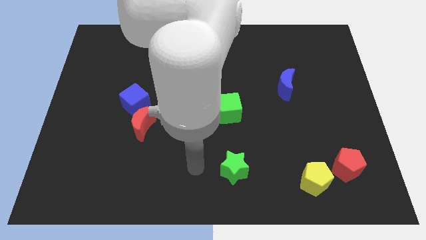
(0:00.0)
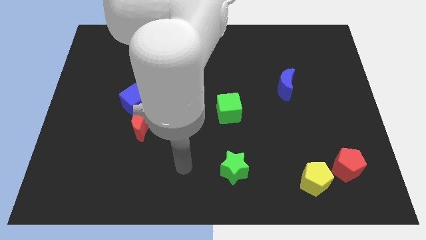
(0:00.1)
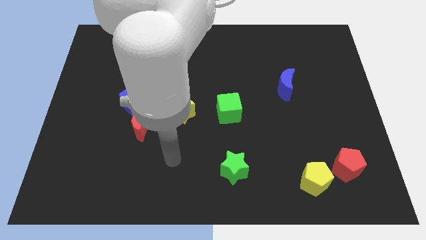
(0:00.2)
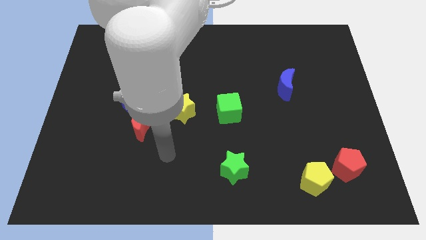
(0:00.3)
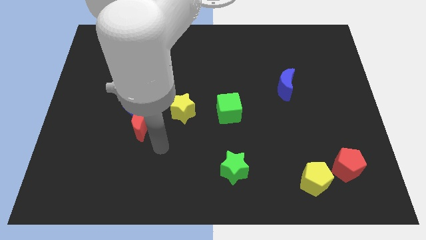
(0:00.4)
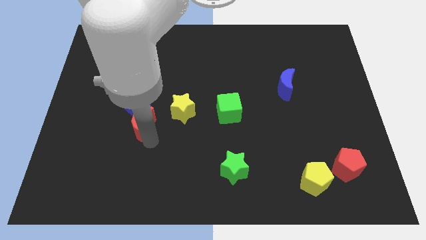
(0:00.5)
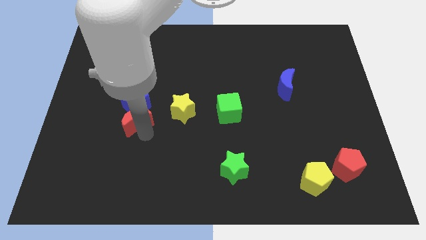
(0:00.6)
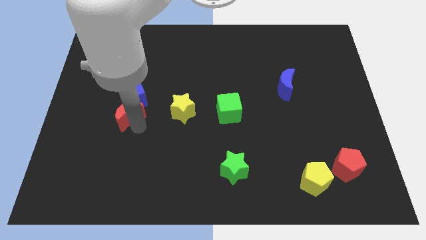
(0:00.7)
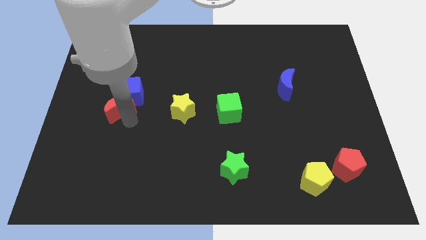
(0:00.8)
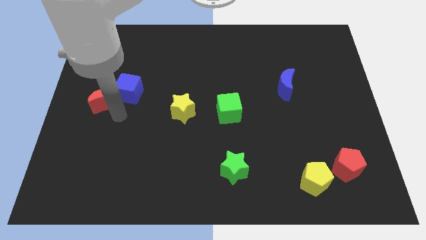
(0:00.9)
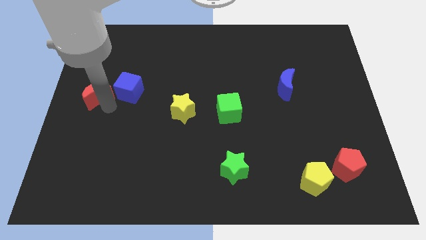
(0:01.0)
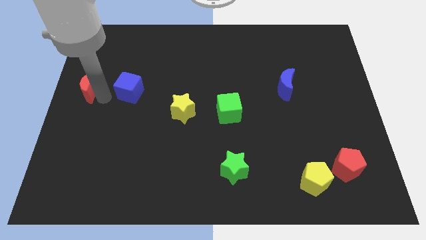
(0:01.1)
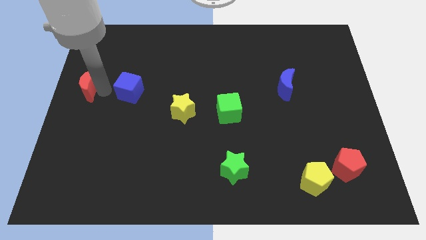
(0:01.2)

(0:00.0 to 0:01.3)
move the blue cube away from the red moon

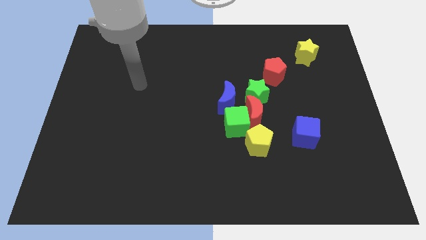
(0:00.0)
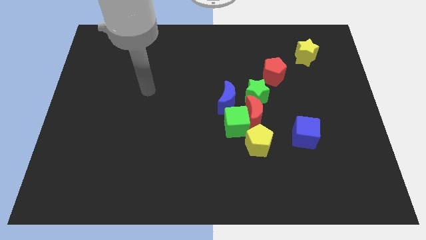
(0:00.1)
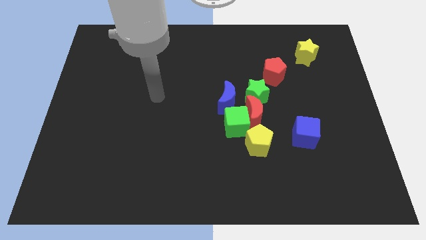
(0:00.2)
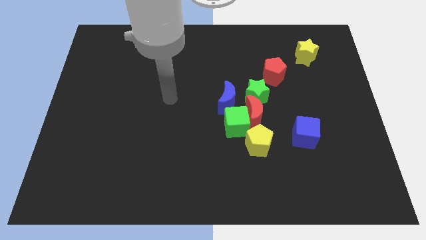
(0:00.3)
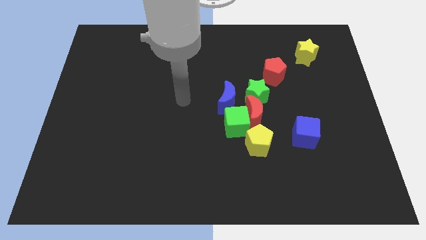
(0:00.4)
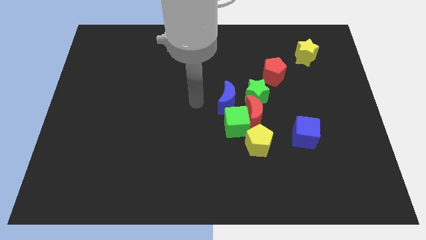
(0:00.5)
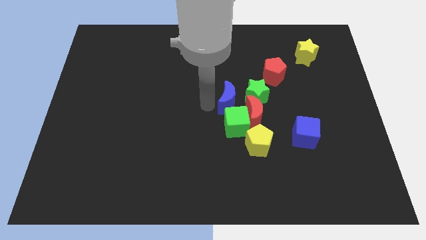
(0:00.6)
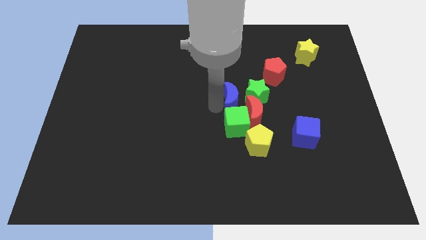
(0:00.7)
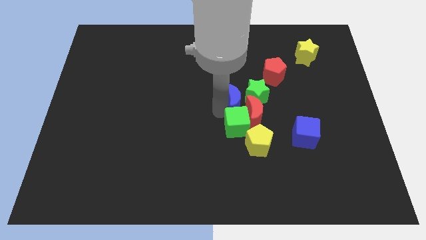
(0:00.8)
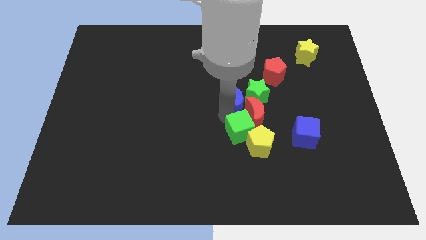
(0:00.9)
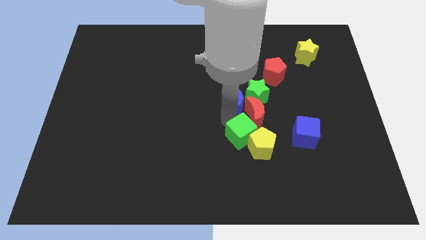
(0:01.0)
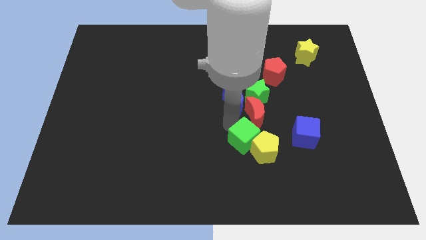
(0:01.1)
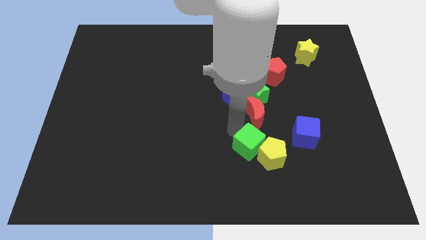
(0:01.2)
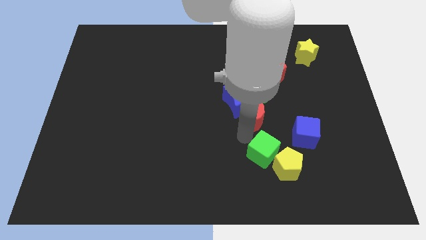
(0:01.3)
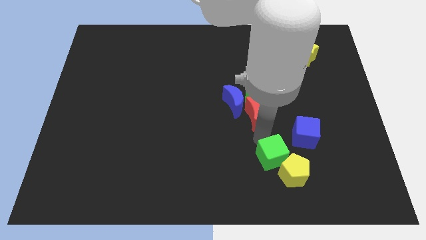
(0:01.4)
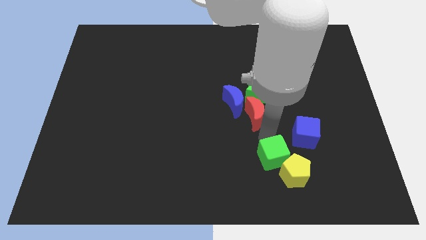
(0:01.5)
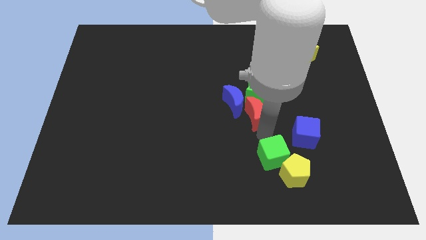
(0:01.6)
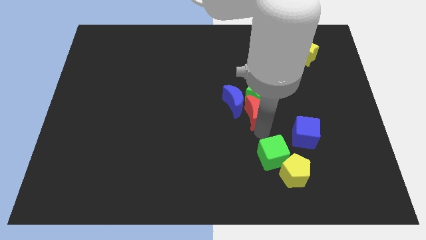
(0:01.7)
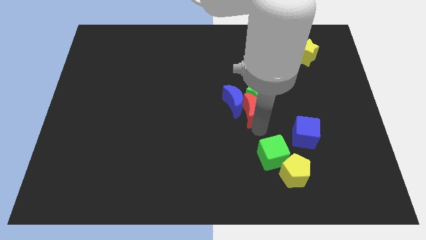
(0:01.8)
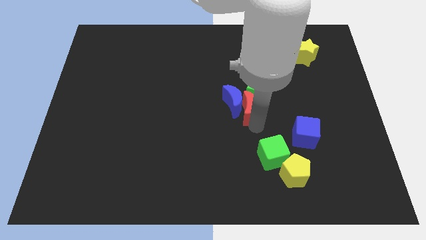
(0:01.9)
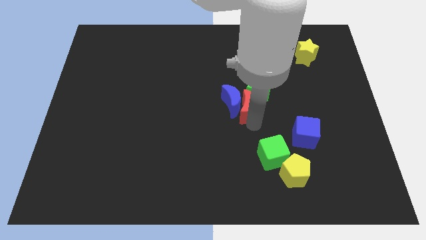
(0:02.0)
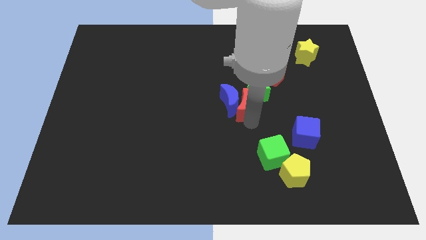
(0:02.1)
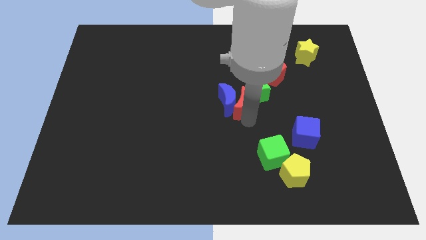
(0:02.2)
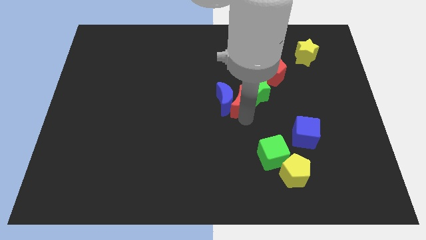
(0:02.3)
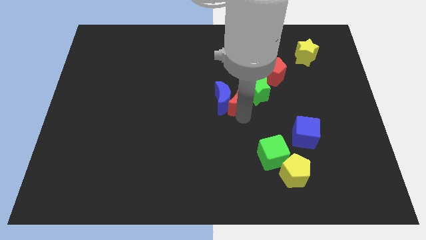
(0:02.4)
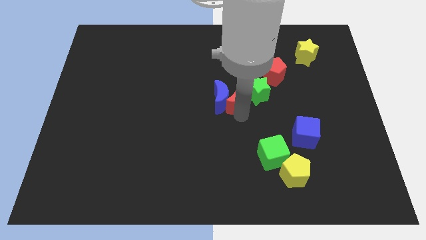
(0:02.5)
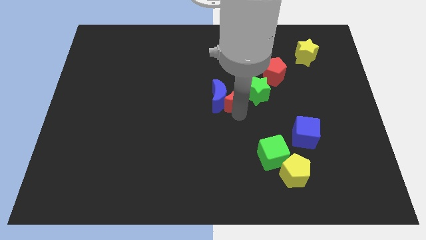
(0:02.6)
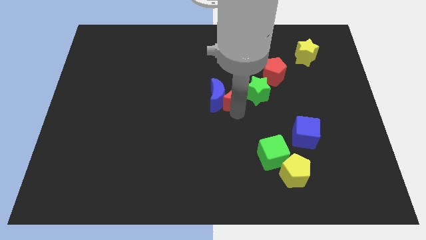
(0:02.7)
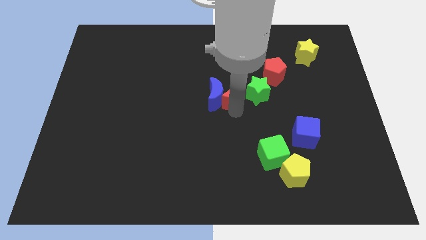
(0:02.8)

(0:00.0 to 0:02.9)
pull the red moon apart from the clump

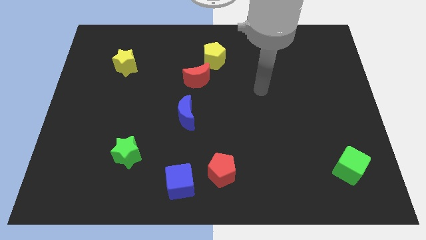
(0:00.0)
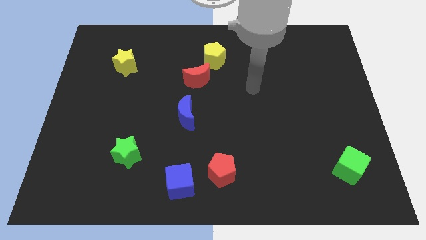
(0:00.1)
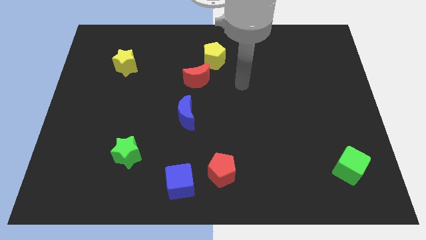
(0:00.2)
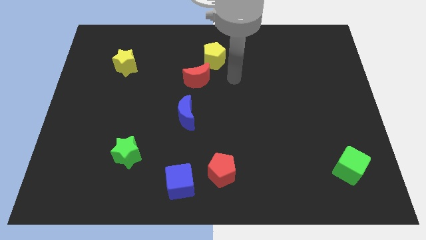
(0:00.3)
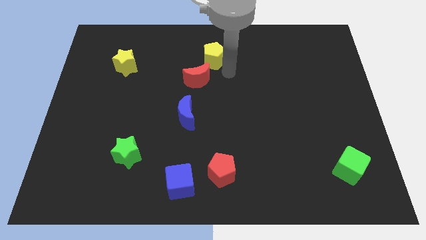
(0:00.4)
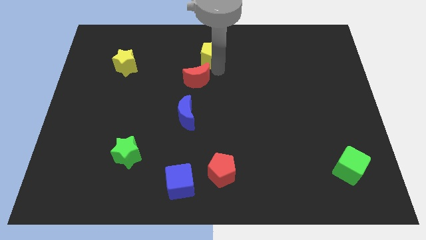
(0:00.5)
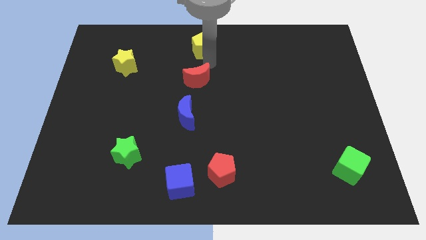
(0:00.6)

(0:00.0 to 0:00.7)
separate the red moon from the yellow pentagon

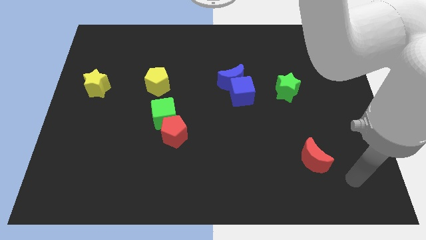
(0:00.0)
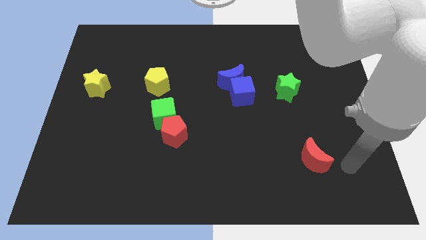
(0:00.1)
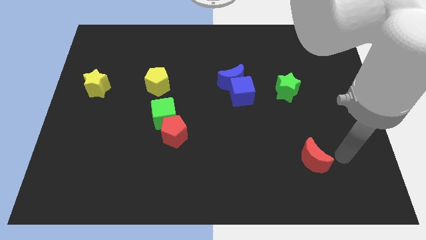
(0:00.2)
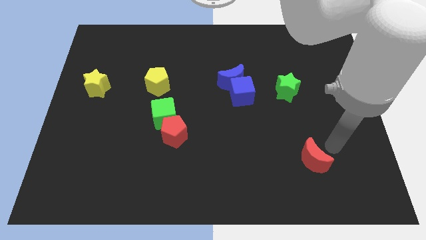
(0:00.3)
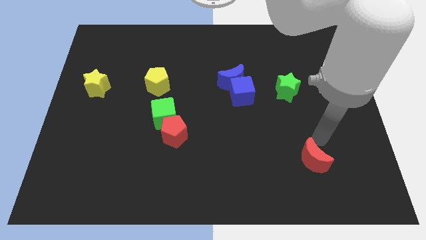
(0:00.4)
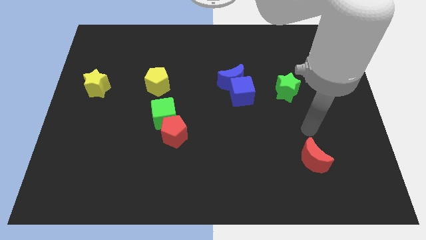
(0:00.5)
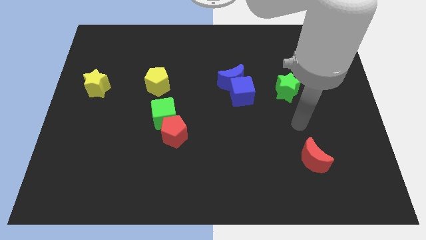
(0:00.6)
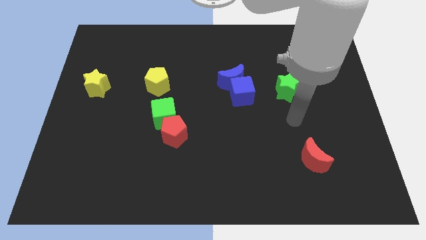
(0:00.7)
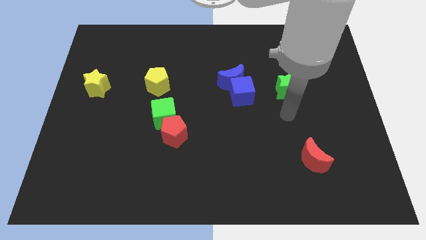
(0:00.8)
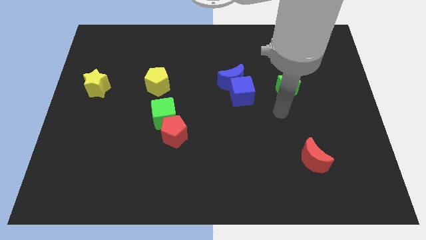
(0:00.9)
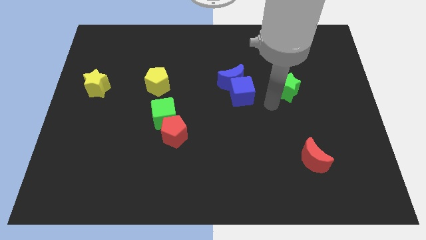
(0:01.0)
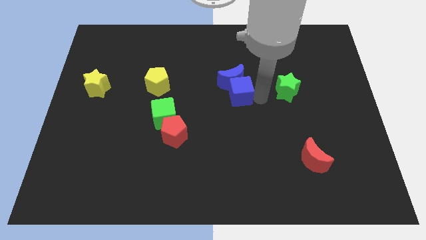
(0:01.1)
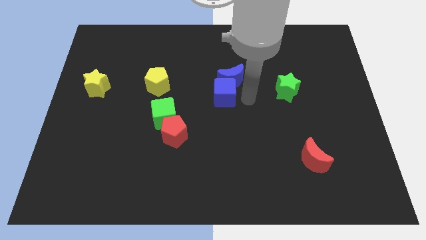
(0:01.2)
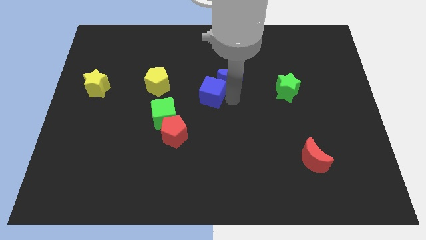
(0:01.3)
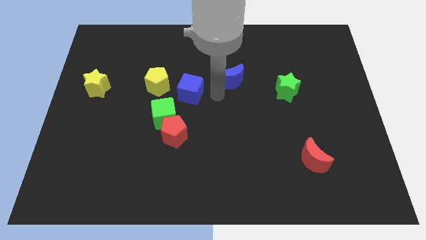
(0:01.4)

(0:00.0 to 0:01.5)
move the blue moon away from the blue cube

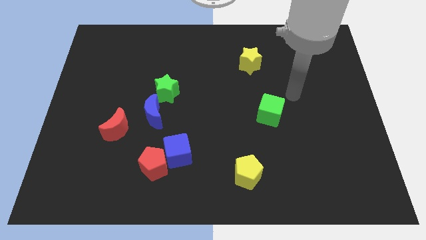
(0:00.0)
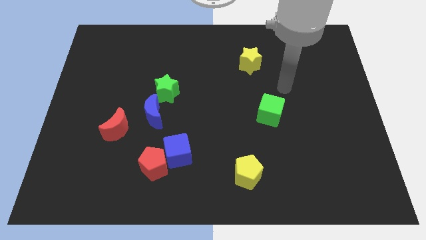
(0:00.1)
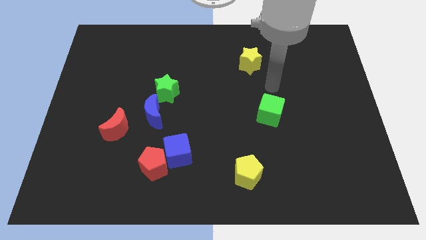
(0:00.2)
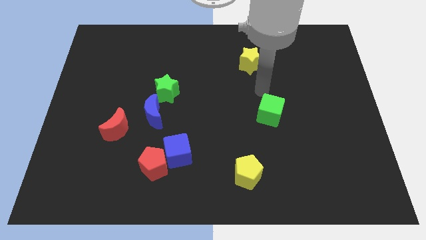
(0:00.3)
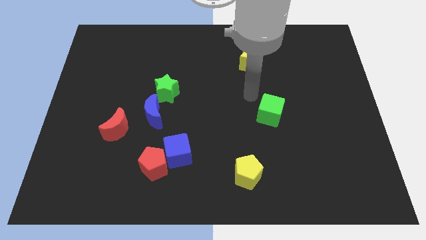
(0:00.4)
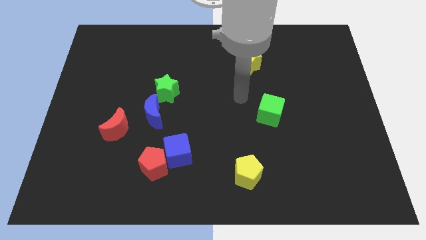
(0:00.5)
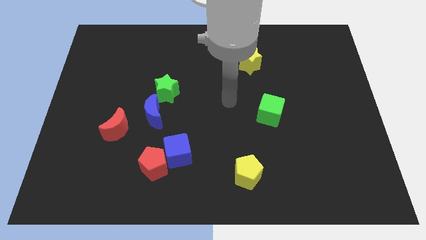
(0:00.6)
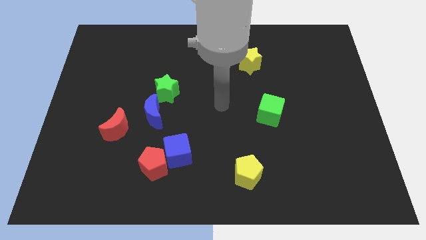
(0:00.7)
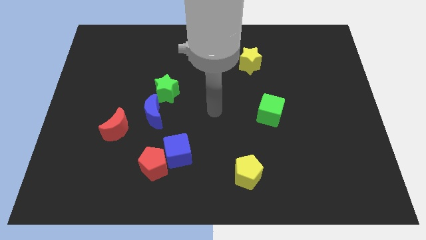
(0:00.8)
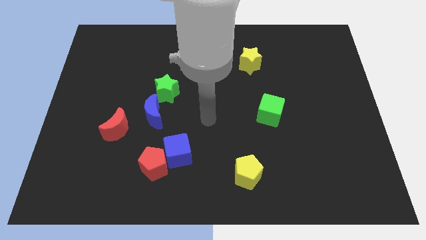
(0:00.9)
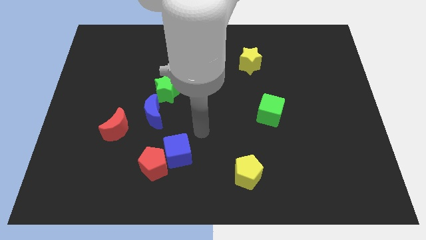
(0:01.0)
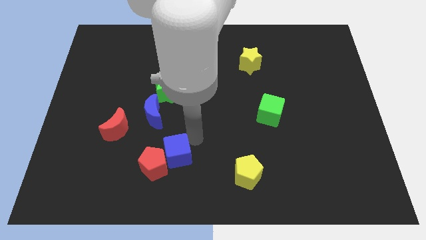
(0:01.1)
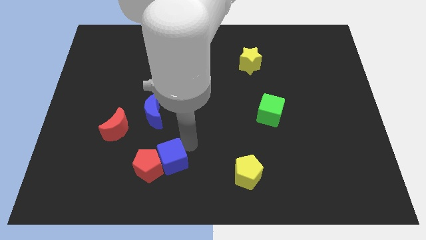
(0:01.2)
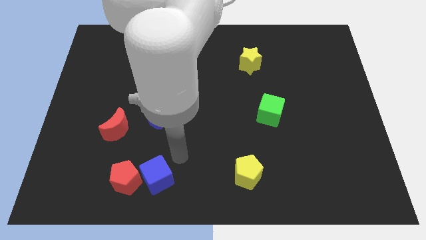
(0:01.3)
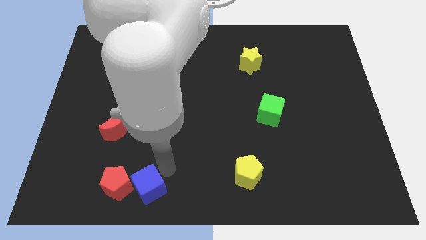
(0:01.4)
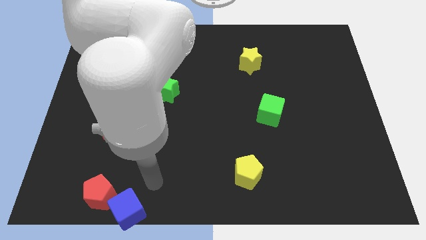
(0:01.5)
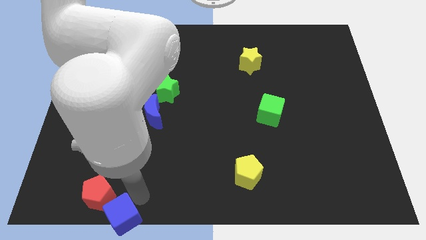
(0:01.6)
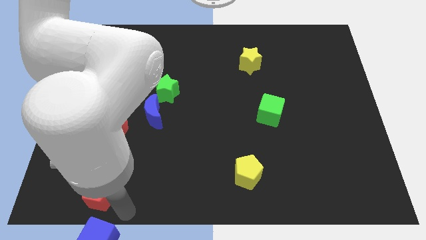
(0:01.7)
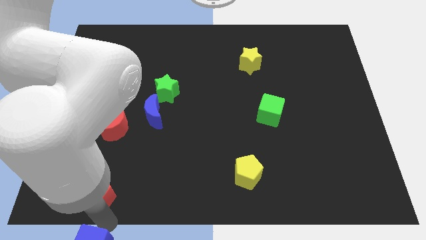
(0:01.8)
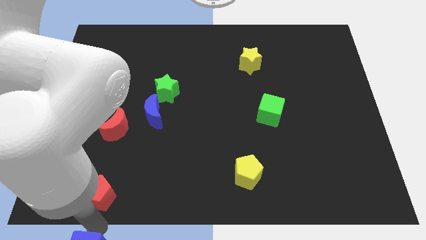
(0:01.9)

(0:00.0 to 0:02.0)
separate the red pentagon from the blue cube

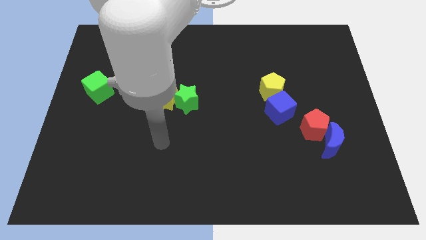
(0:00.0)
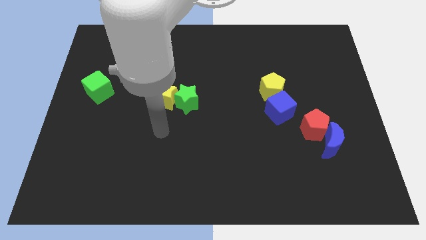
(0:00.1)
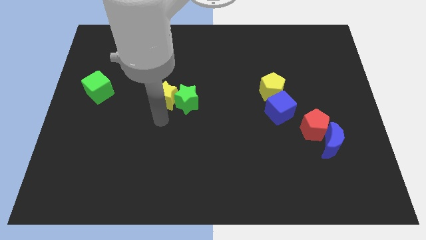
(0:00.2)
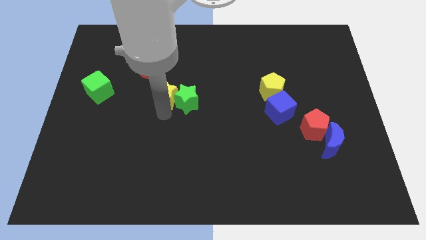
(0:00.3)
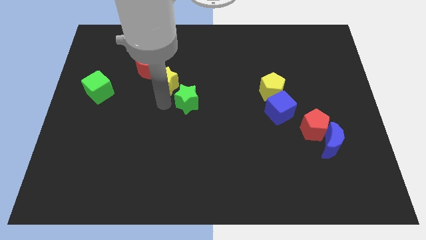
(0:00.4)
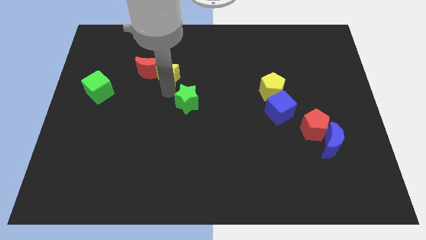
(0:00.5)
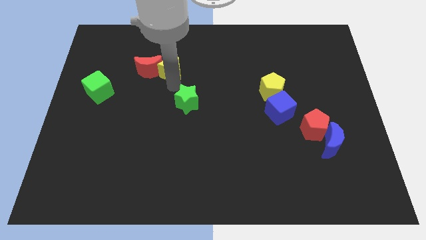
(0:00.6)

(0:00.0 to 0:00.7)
move the green star away from the yellow star
